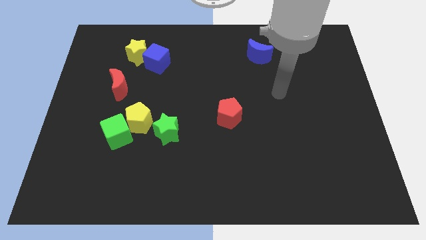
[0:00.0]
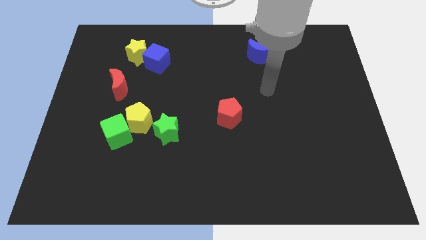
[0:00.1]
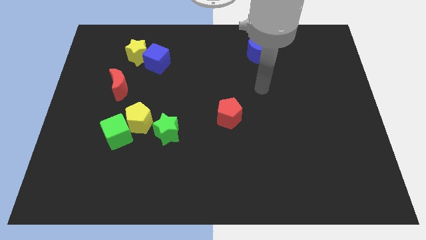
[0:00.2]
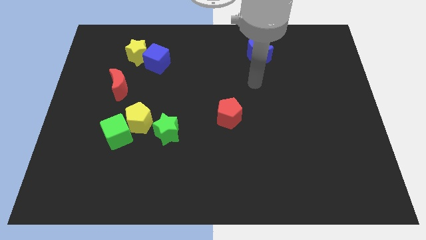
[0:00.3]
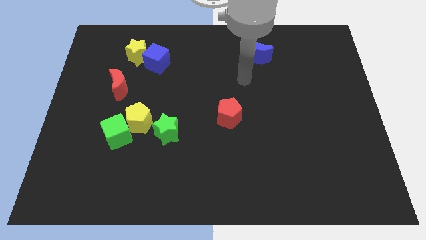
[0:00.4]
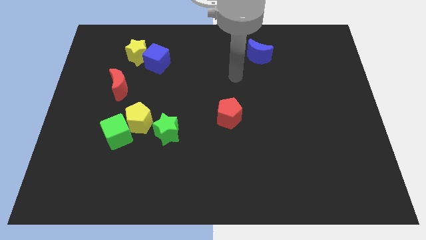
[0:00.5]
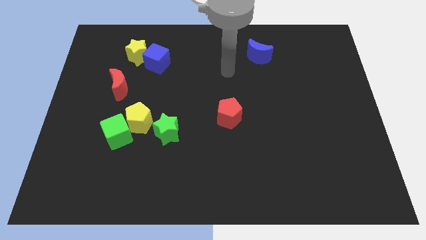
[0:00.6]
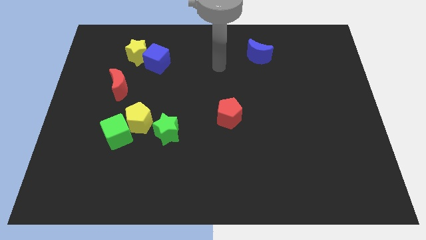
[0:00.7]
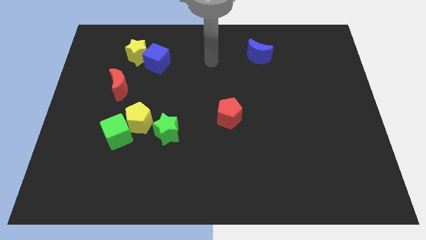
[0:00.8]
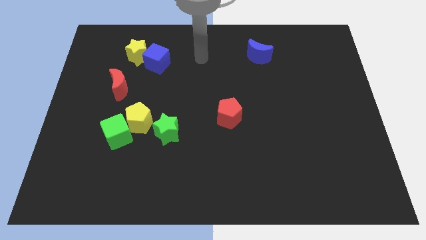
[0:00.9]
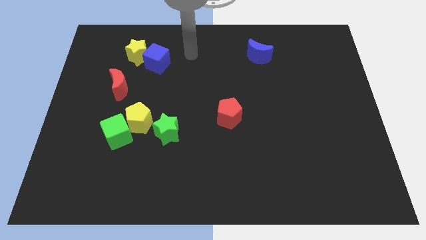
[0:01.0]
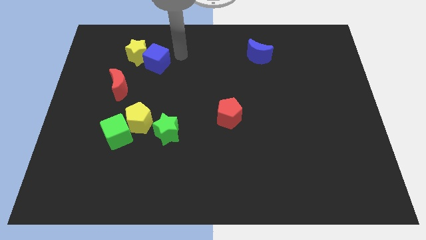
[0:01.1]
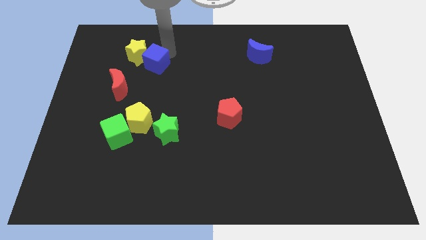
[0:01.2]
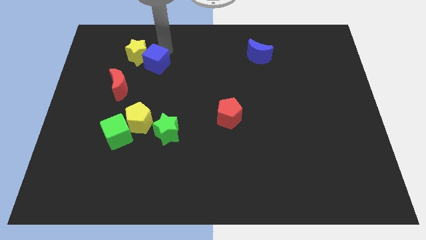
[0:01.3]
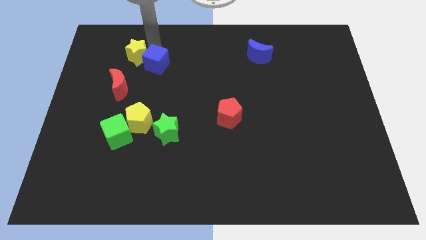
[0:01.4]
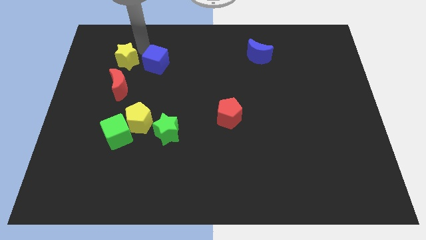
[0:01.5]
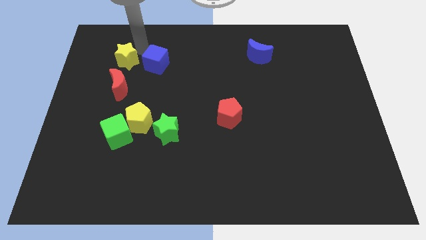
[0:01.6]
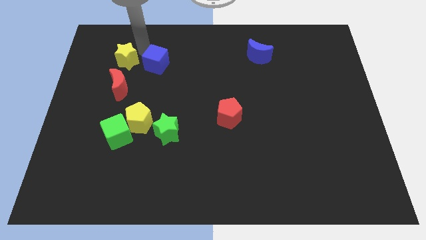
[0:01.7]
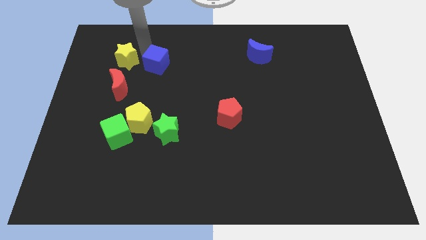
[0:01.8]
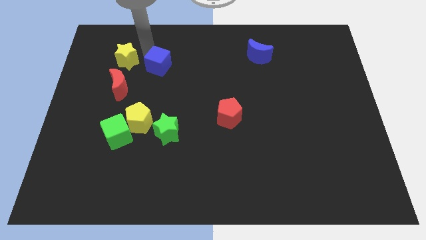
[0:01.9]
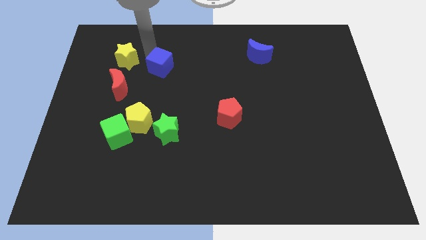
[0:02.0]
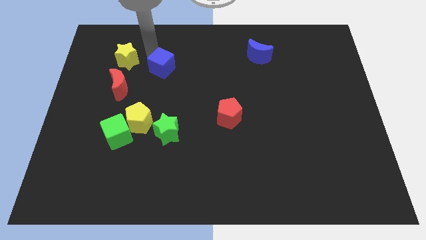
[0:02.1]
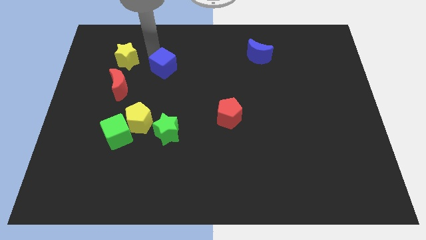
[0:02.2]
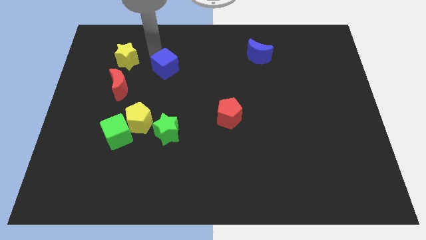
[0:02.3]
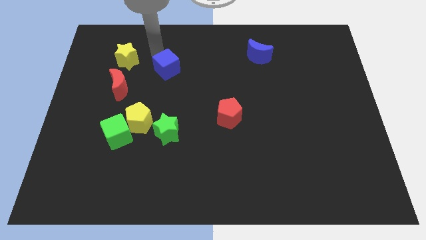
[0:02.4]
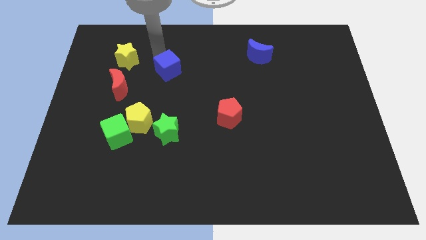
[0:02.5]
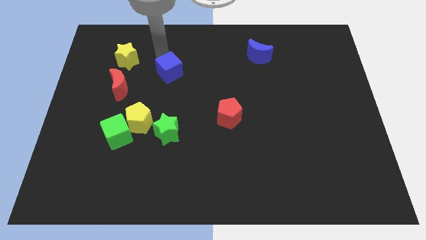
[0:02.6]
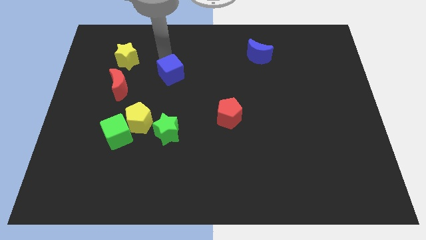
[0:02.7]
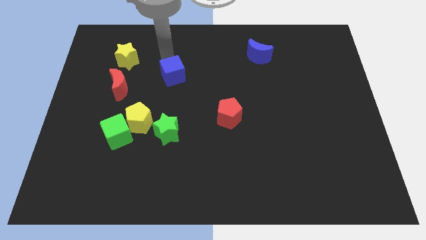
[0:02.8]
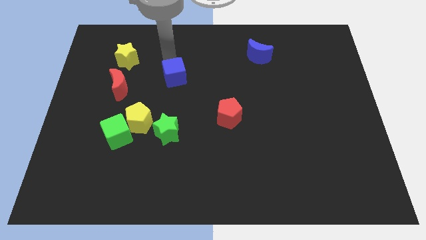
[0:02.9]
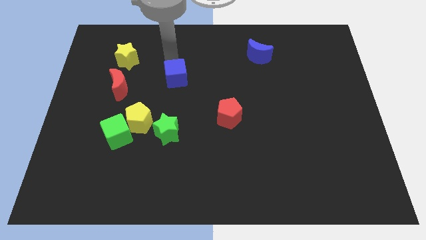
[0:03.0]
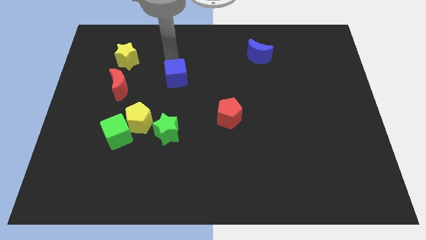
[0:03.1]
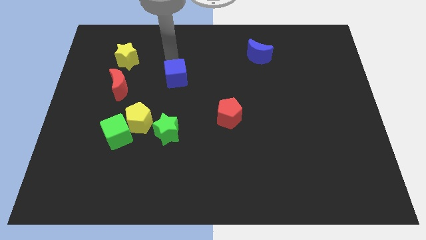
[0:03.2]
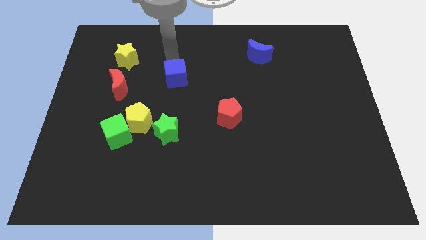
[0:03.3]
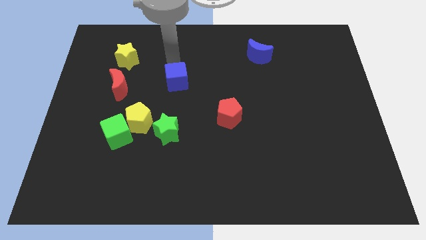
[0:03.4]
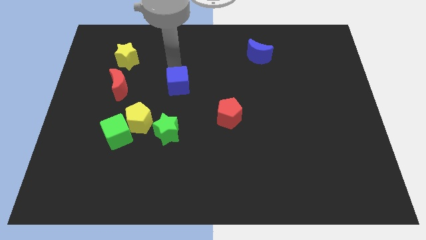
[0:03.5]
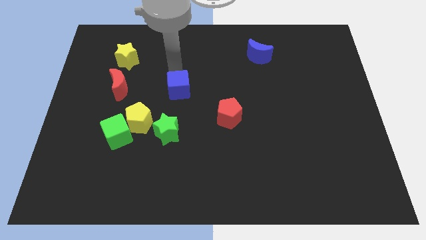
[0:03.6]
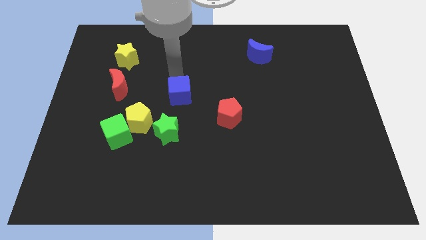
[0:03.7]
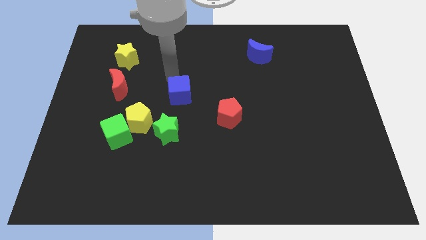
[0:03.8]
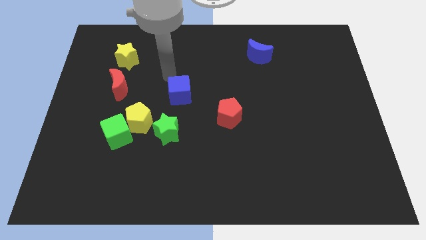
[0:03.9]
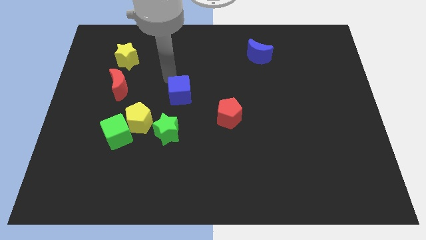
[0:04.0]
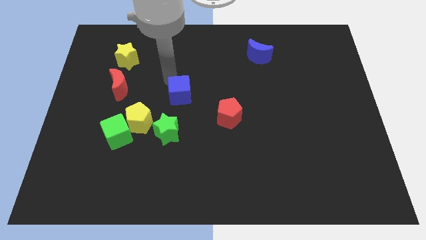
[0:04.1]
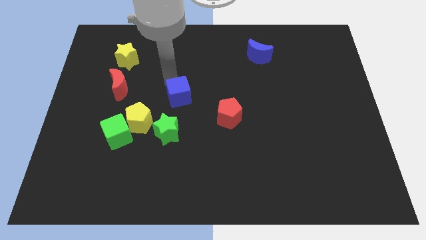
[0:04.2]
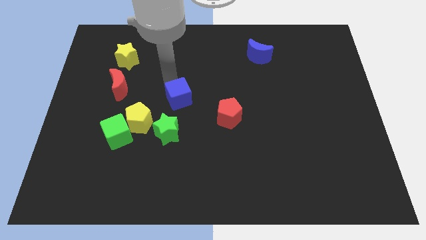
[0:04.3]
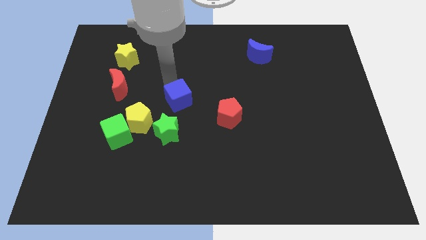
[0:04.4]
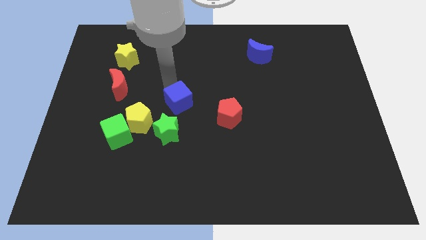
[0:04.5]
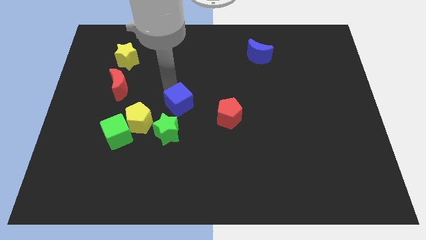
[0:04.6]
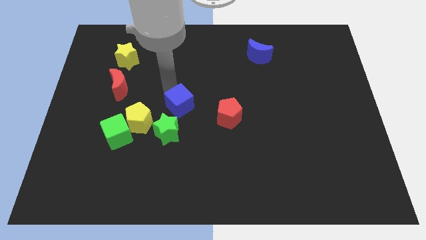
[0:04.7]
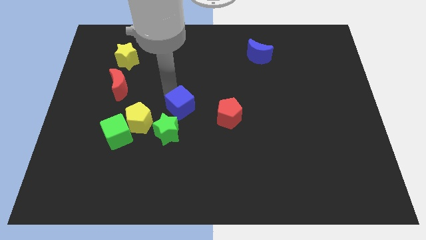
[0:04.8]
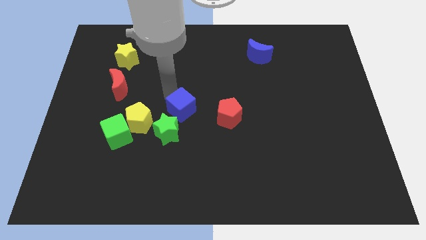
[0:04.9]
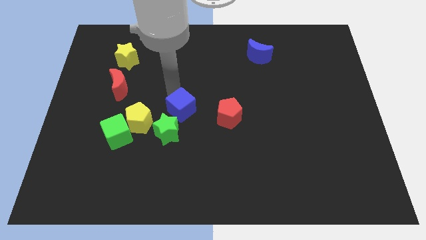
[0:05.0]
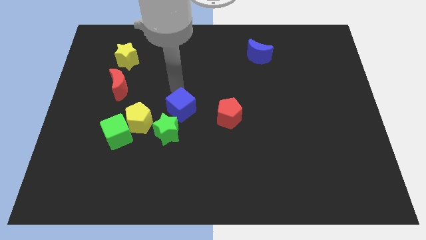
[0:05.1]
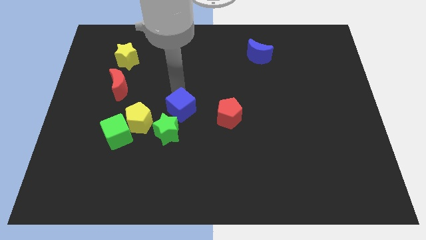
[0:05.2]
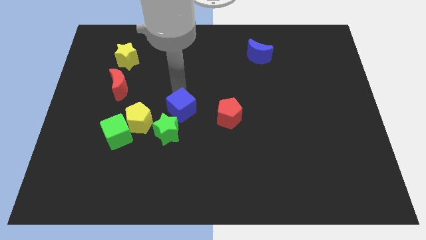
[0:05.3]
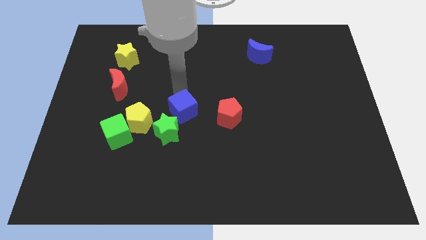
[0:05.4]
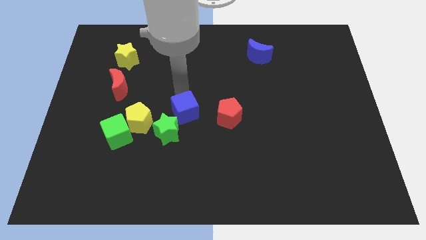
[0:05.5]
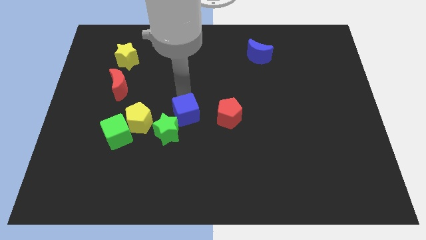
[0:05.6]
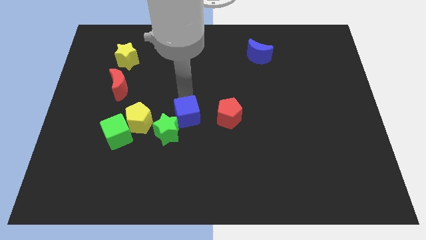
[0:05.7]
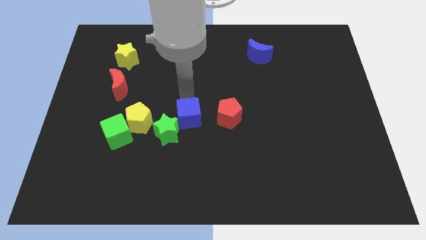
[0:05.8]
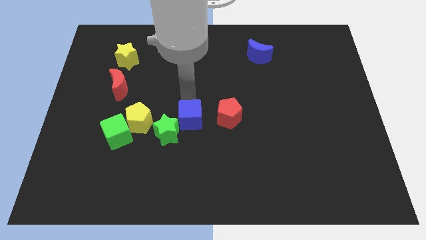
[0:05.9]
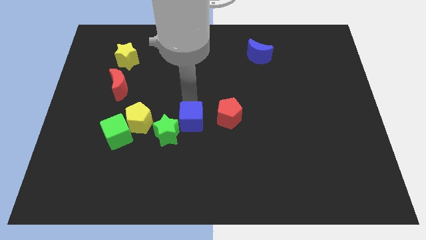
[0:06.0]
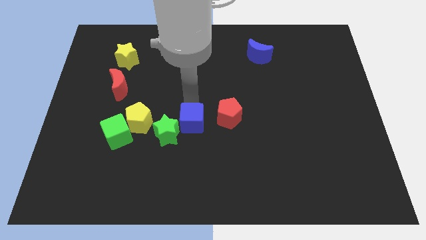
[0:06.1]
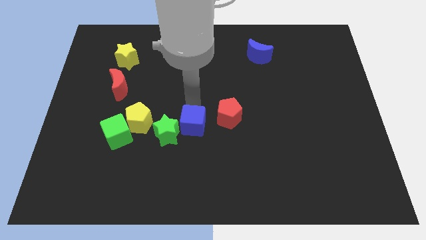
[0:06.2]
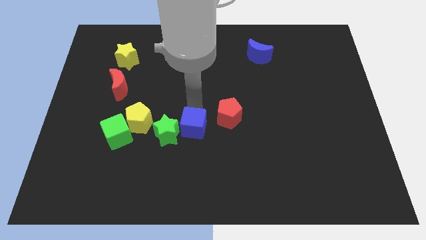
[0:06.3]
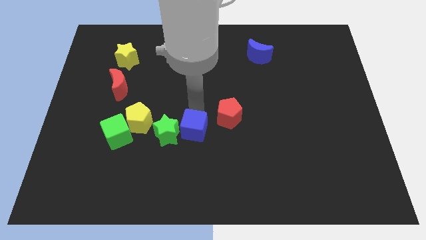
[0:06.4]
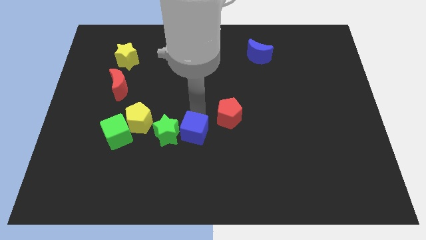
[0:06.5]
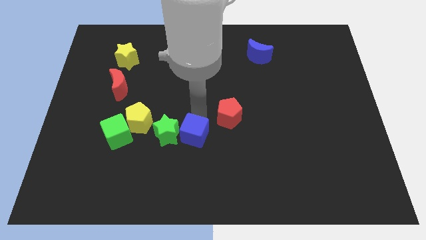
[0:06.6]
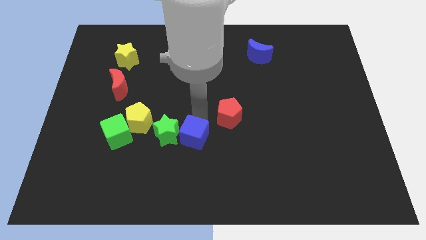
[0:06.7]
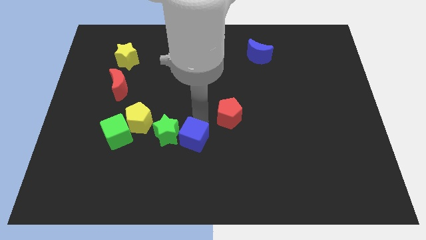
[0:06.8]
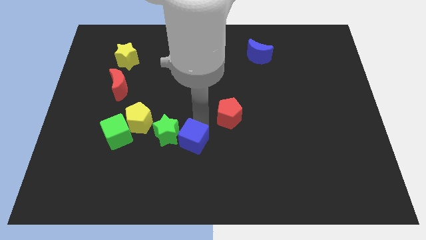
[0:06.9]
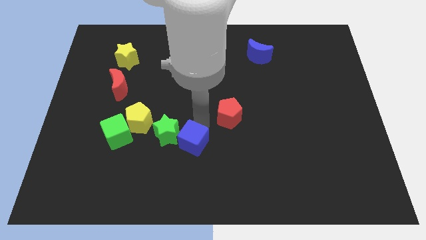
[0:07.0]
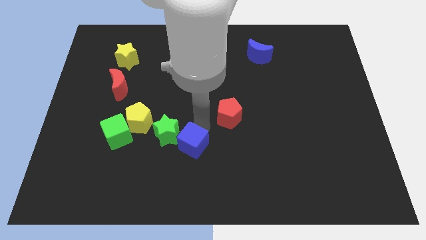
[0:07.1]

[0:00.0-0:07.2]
push the blue cube down

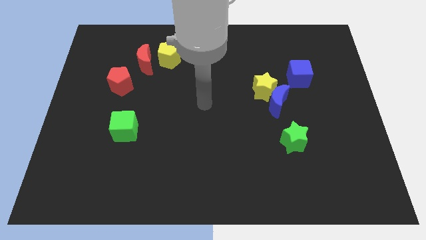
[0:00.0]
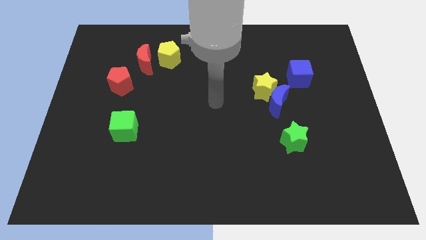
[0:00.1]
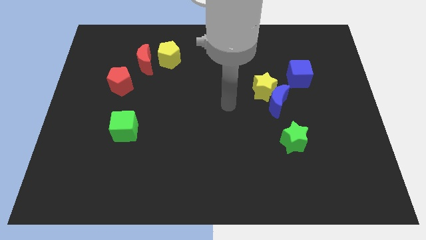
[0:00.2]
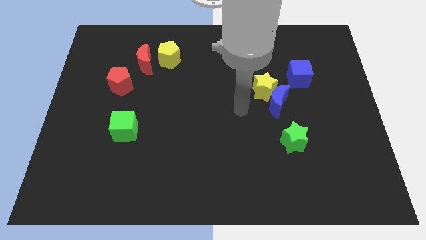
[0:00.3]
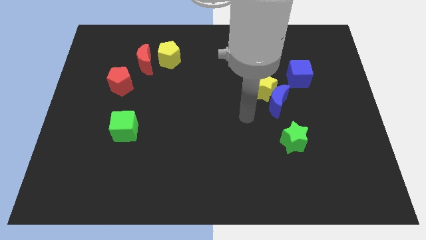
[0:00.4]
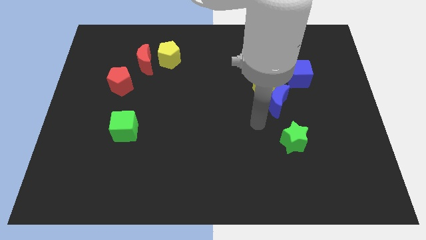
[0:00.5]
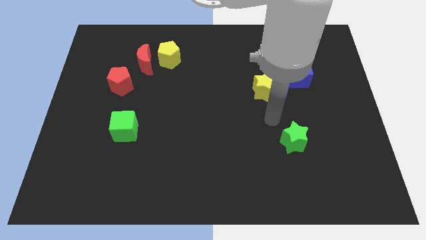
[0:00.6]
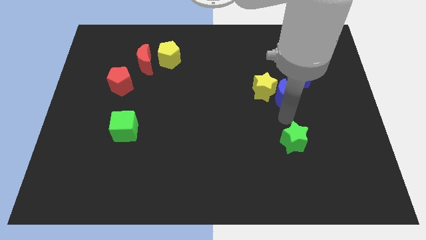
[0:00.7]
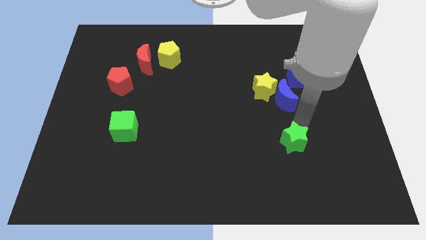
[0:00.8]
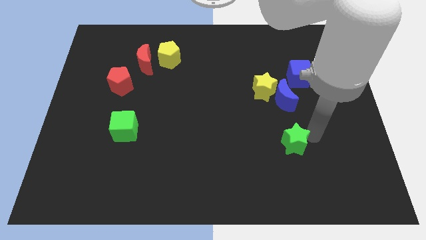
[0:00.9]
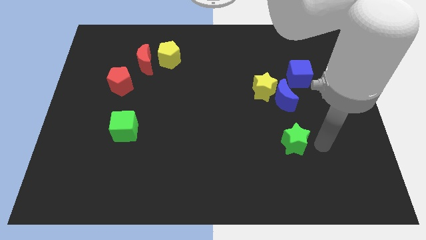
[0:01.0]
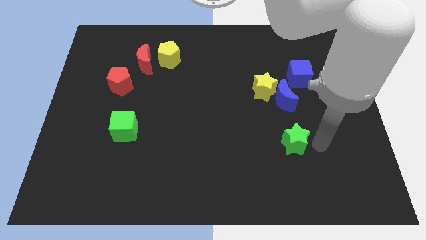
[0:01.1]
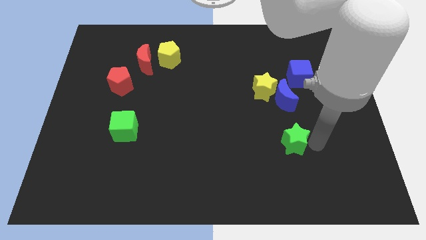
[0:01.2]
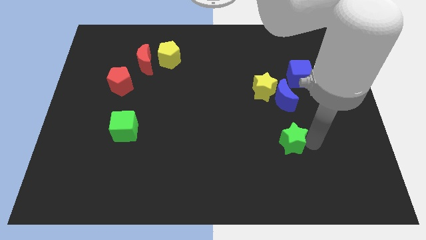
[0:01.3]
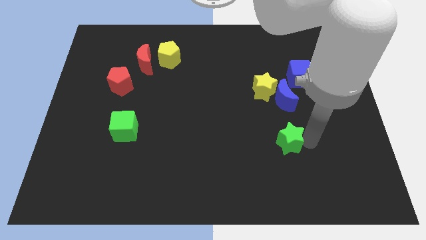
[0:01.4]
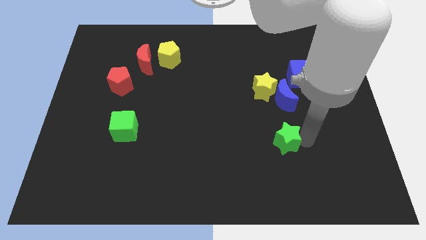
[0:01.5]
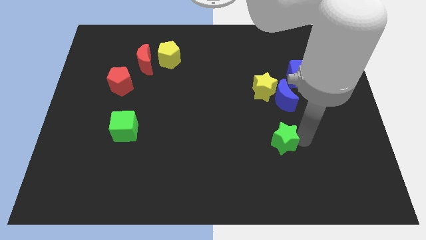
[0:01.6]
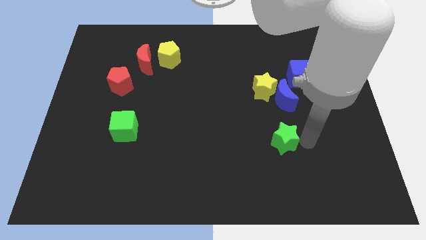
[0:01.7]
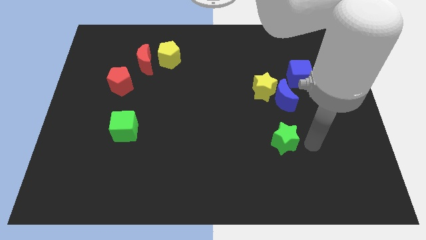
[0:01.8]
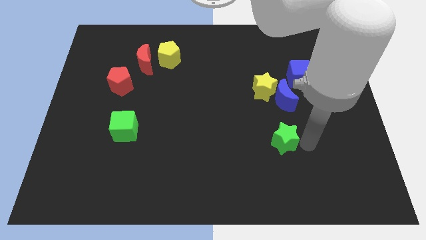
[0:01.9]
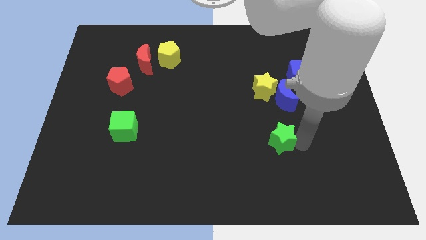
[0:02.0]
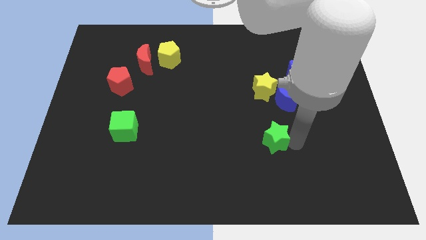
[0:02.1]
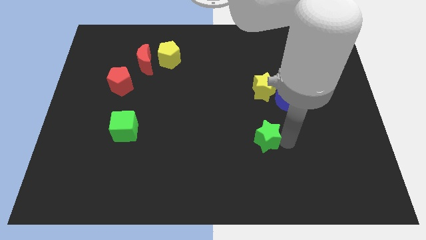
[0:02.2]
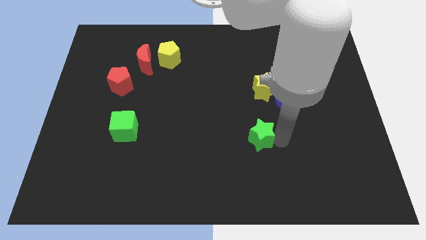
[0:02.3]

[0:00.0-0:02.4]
move the green star a bit left
